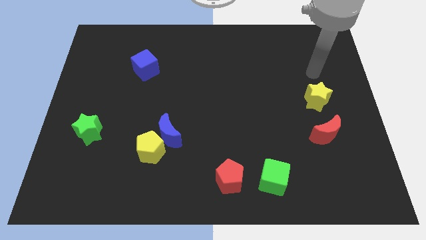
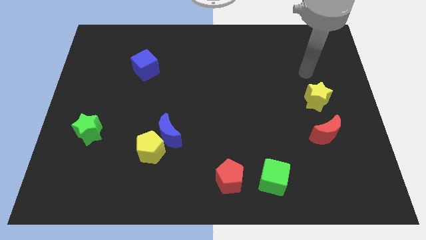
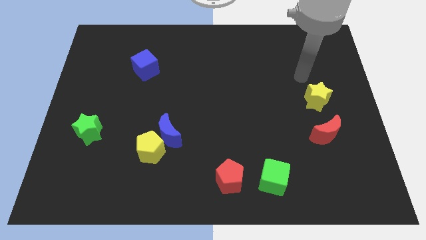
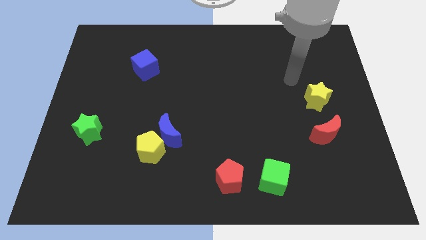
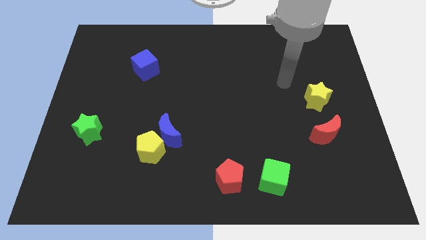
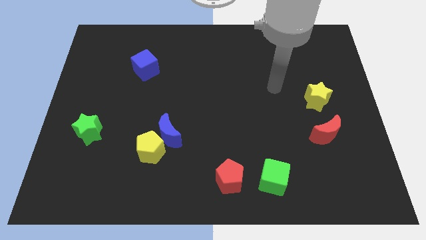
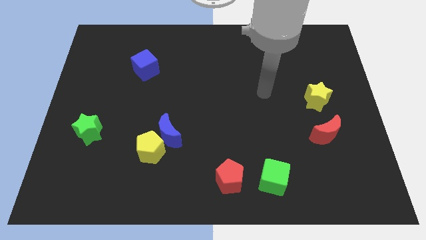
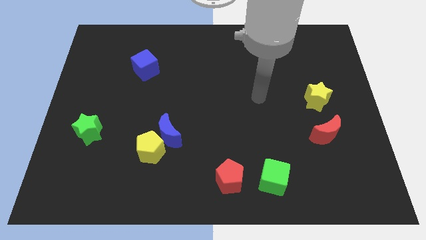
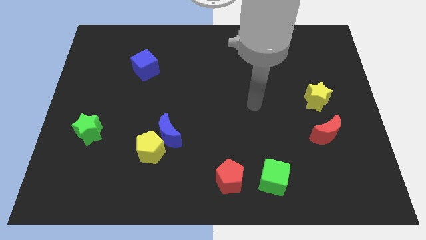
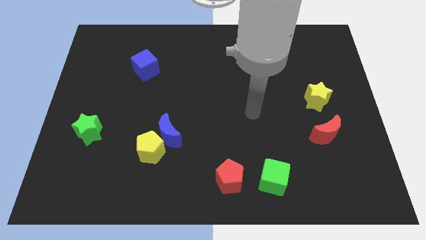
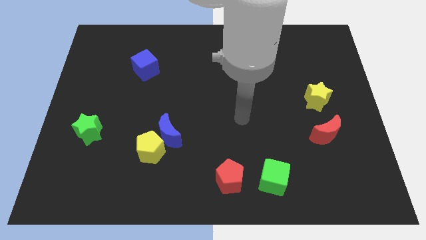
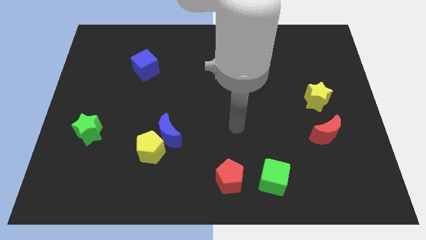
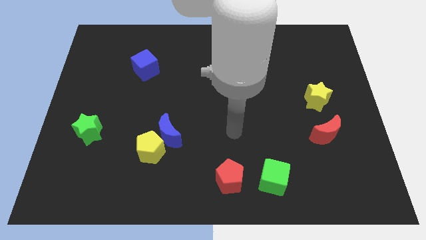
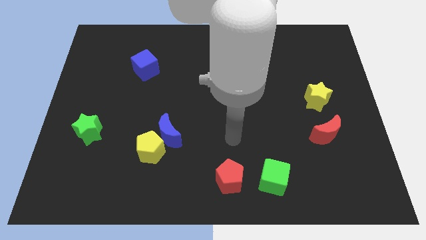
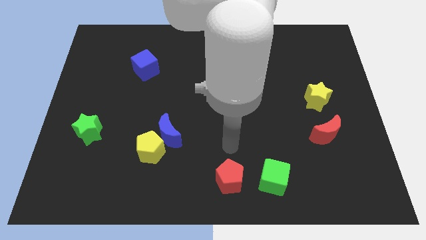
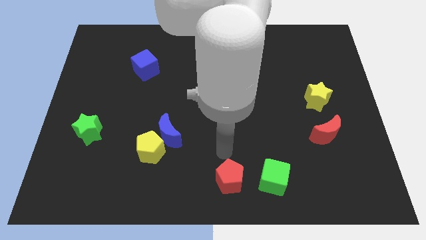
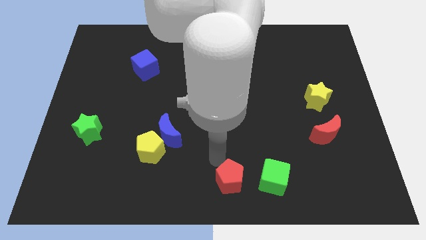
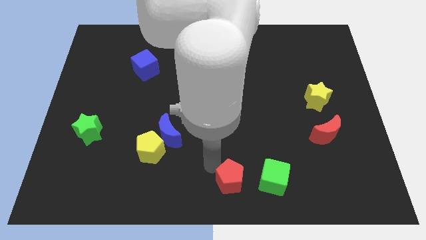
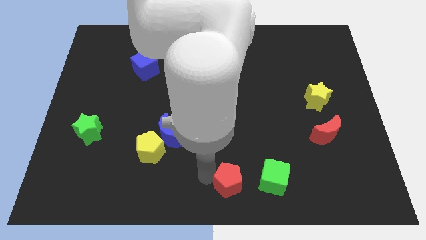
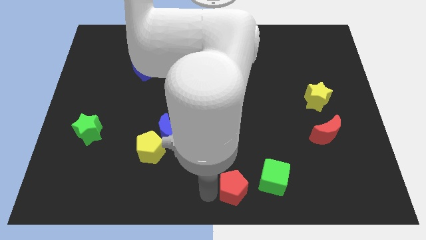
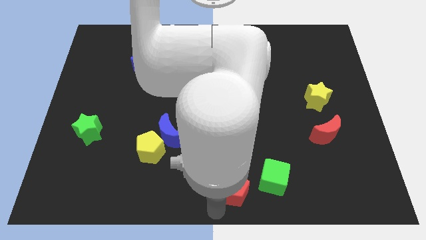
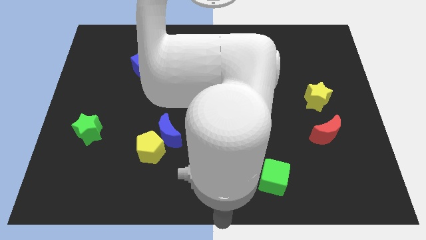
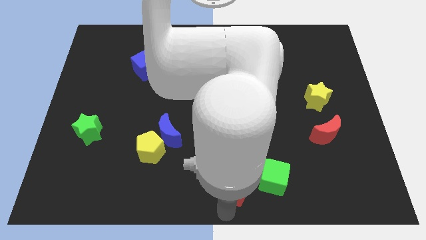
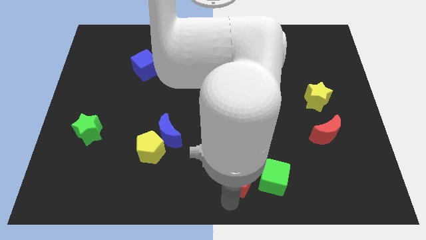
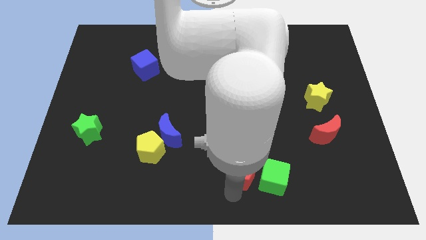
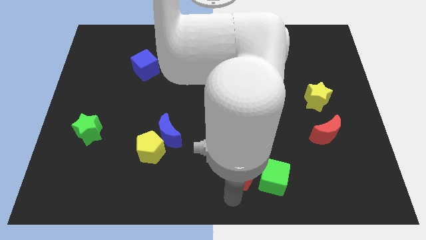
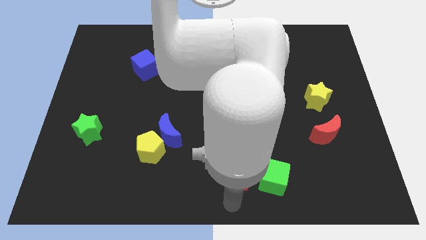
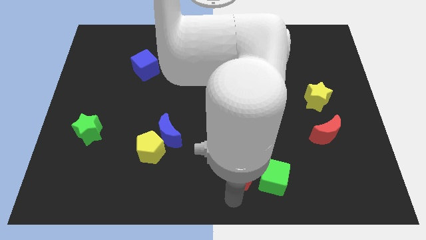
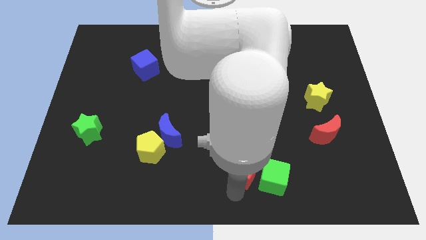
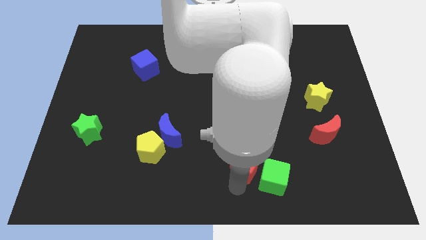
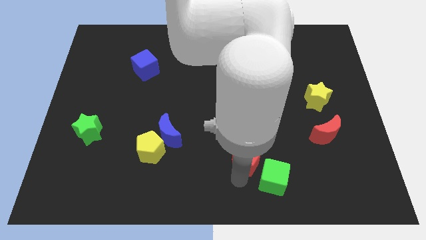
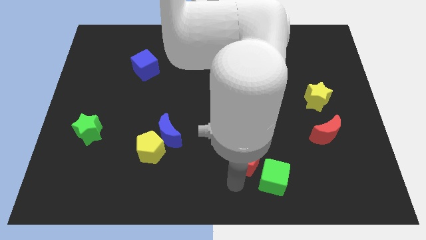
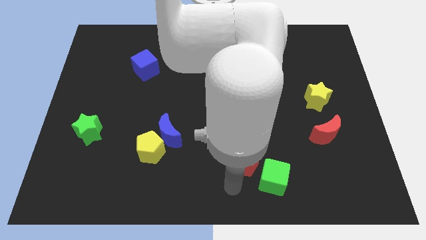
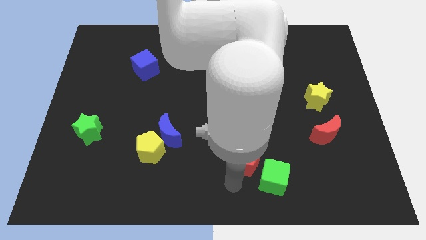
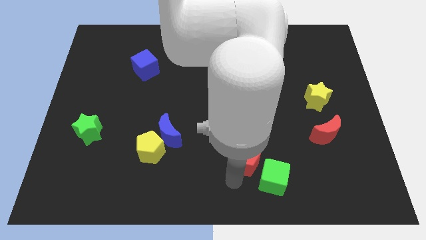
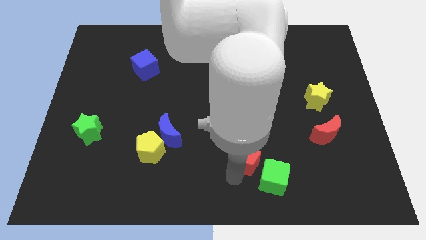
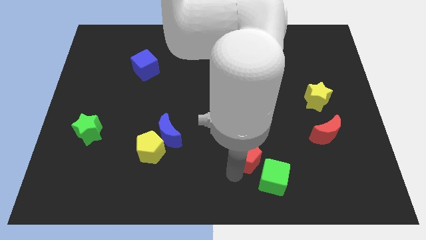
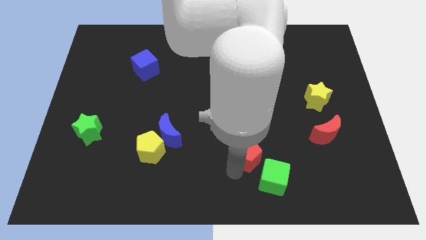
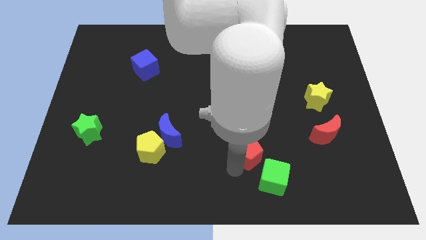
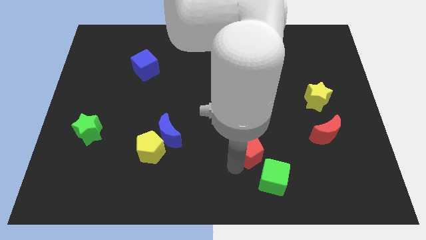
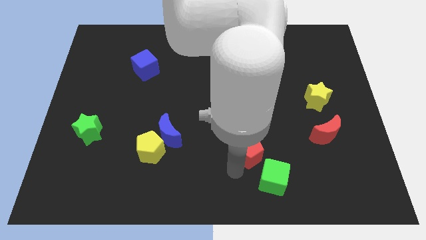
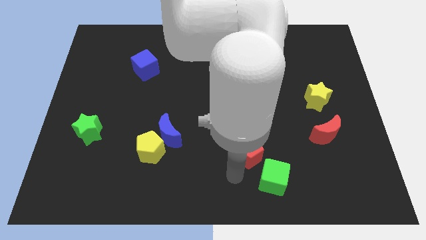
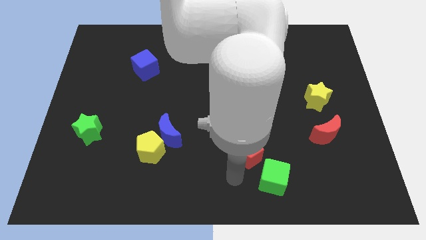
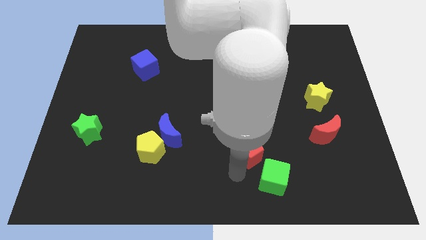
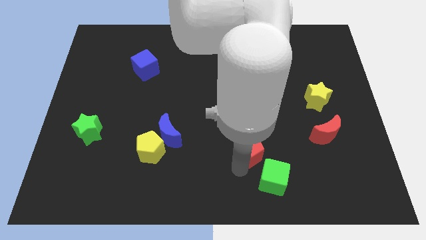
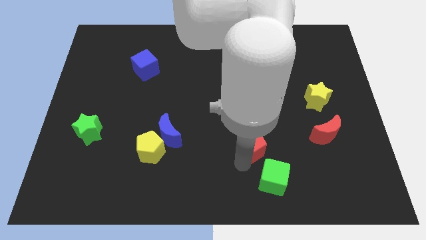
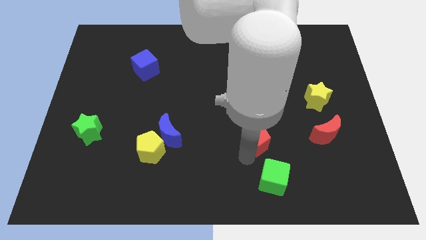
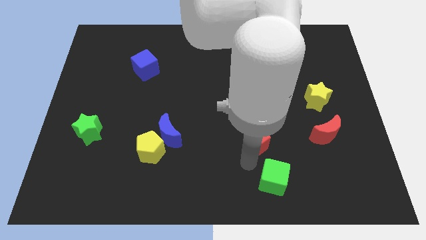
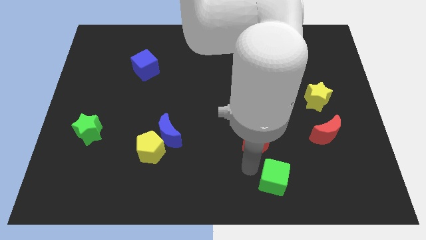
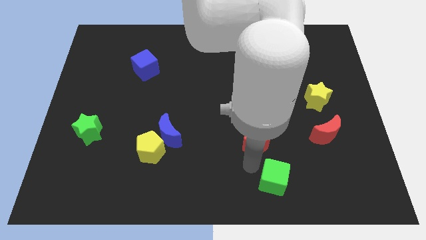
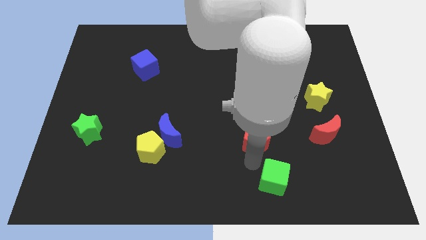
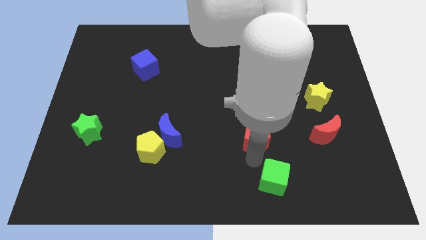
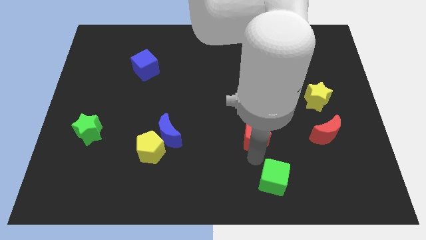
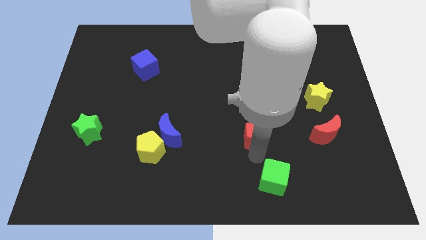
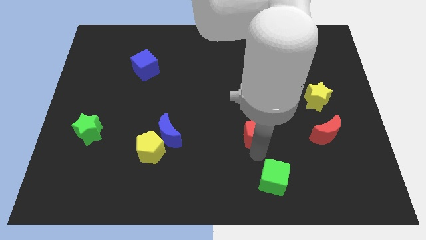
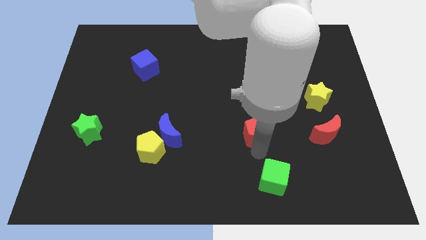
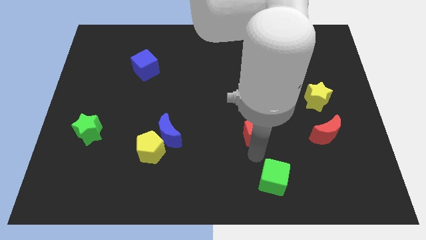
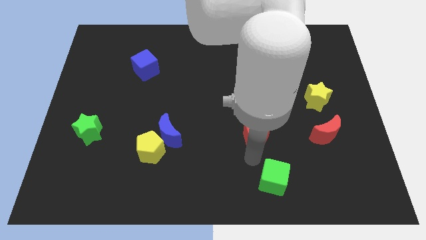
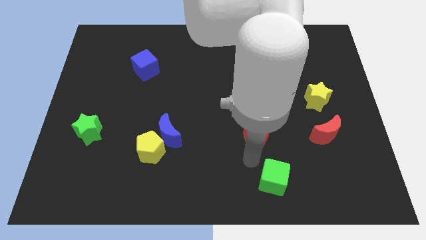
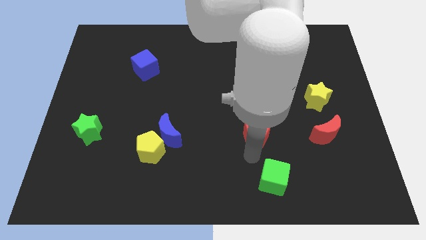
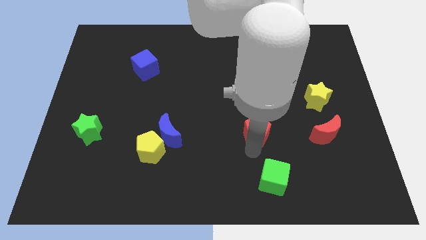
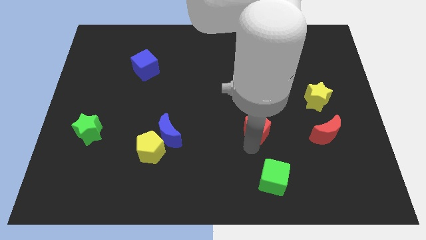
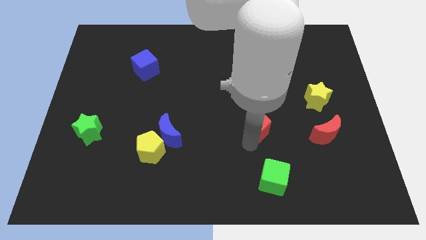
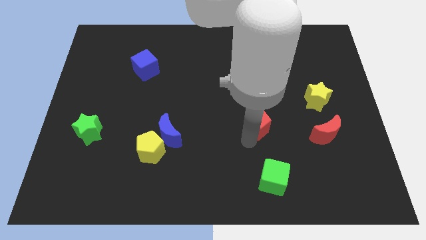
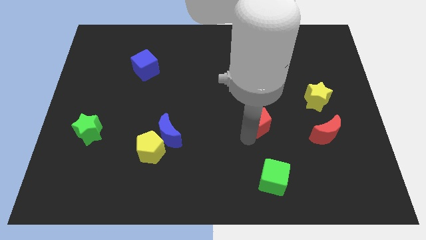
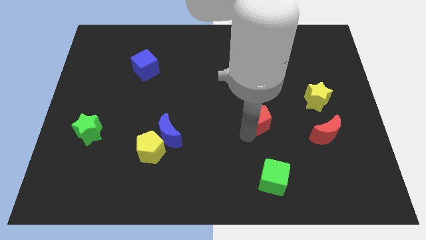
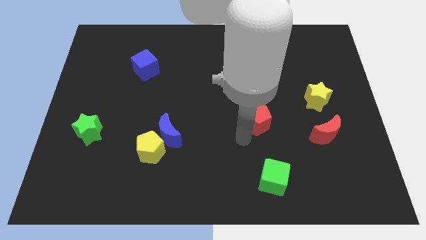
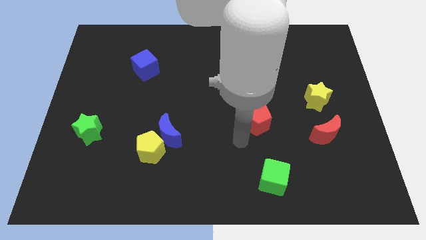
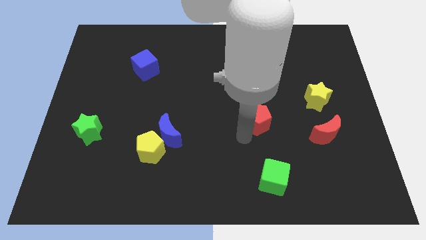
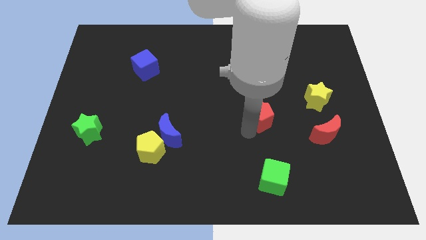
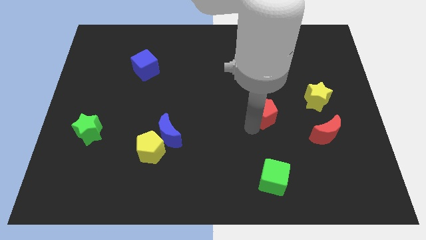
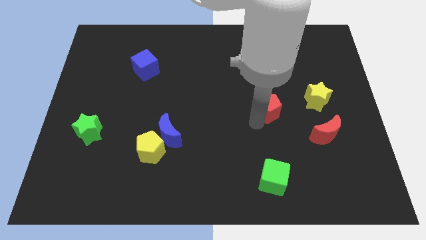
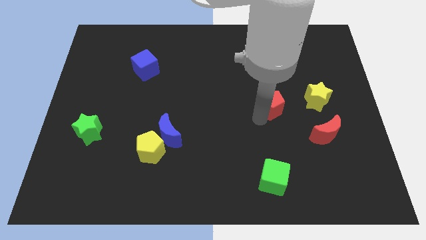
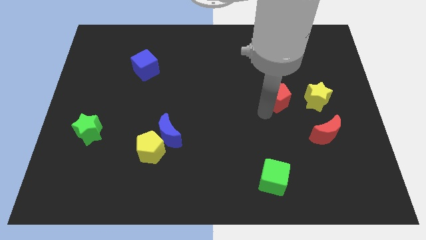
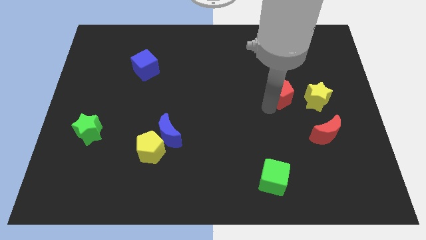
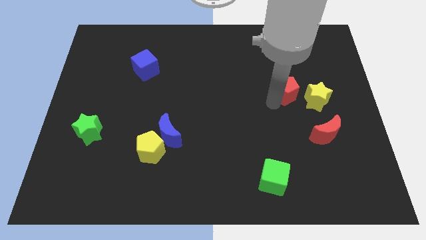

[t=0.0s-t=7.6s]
push the red pentagon diagonally up and to the left of the yellow star
